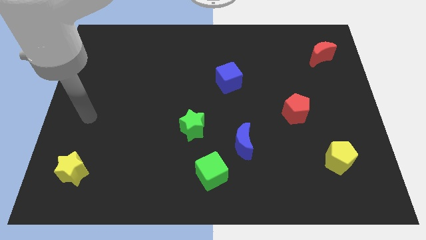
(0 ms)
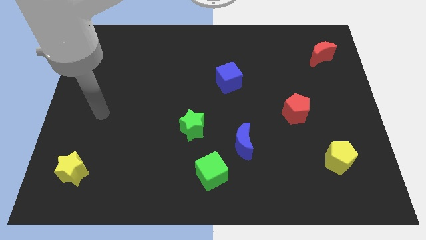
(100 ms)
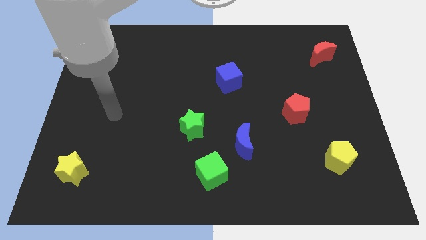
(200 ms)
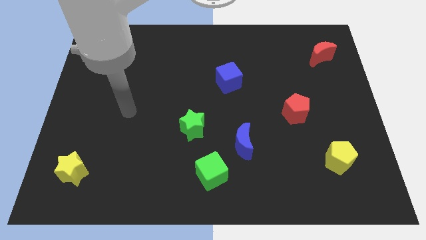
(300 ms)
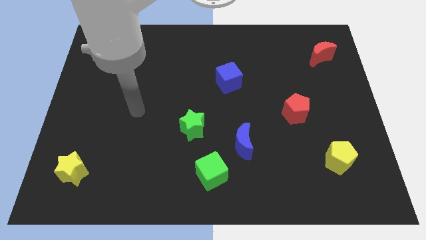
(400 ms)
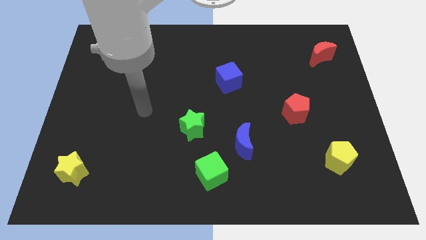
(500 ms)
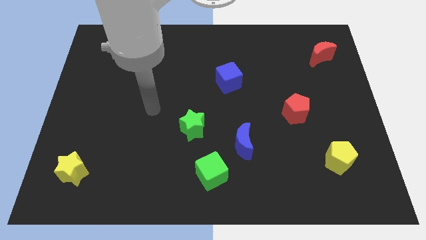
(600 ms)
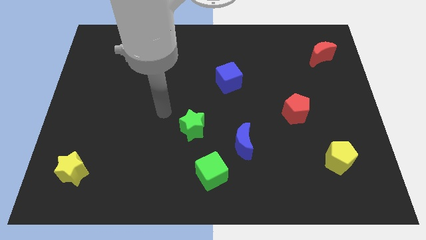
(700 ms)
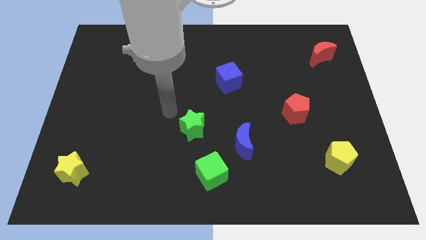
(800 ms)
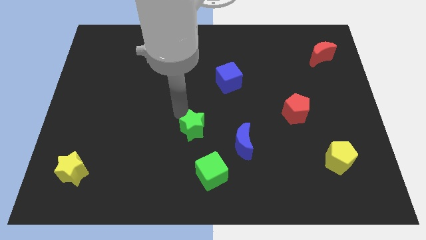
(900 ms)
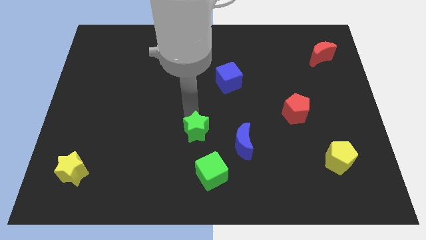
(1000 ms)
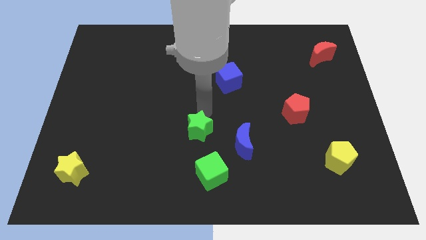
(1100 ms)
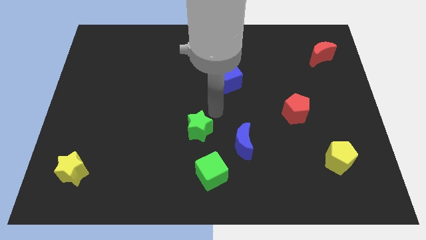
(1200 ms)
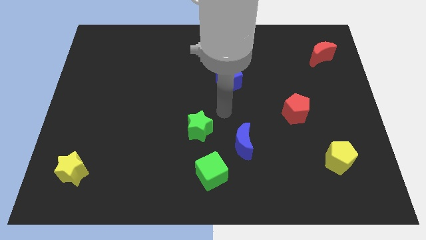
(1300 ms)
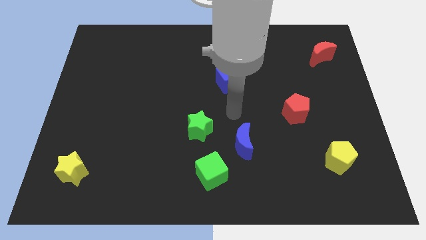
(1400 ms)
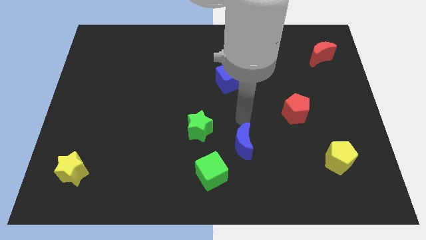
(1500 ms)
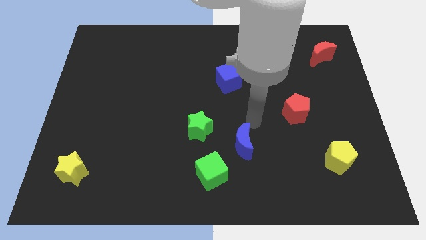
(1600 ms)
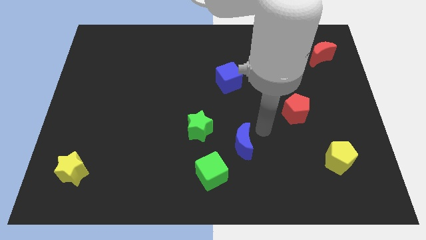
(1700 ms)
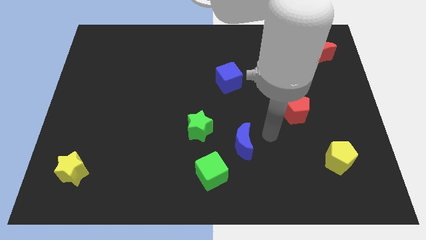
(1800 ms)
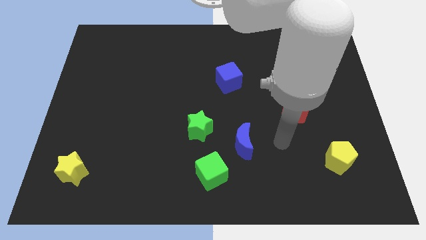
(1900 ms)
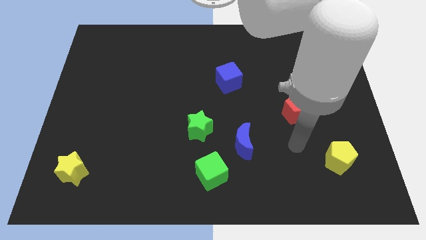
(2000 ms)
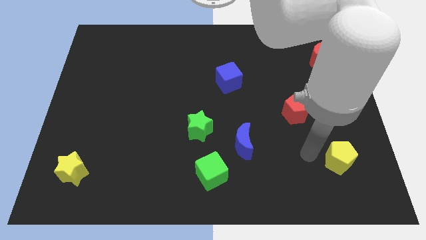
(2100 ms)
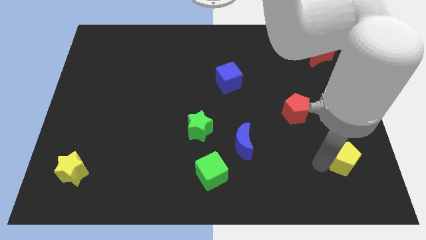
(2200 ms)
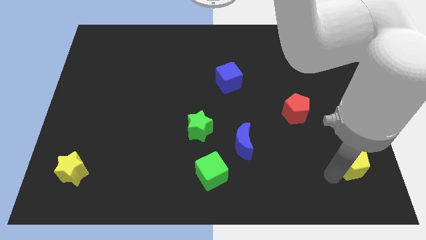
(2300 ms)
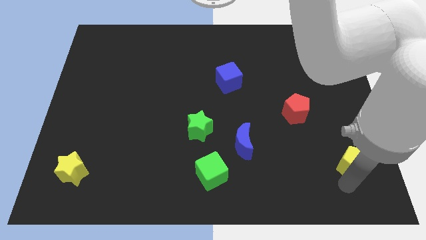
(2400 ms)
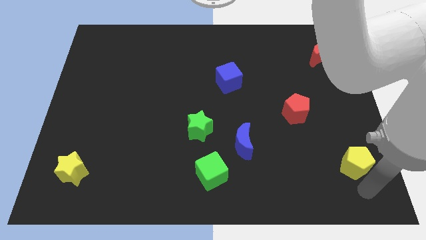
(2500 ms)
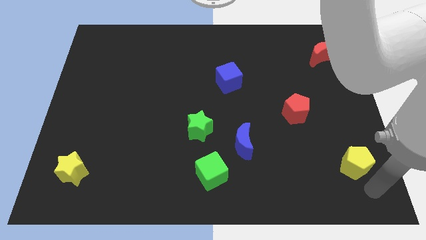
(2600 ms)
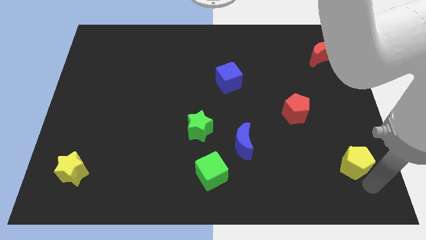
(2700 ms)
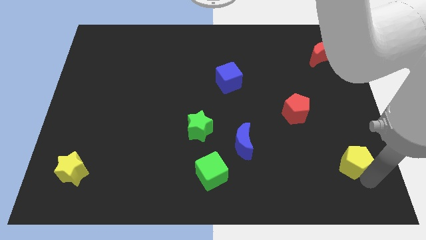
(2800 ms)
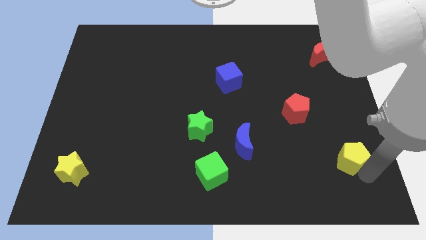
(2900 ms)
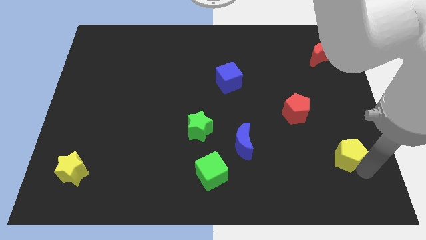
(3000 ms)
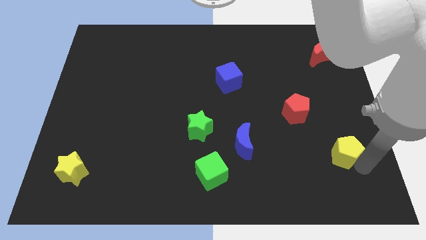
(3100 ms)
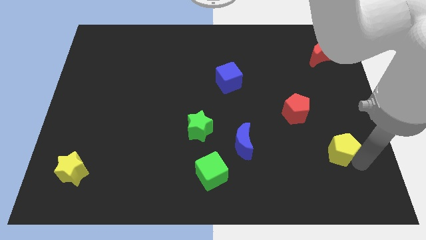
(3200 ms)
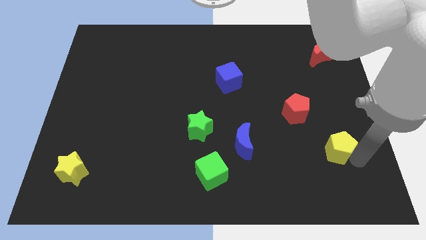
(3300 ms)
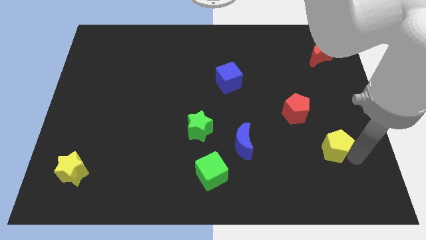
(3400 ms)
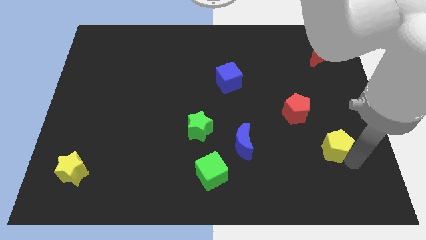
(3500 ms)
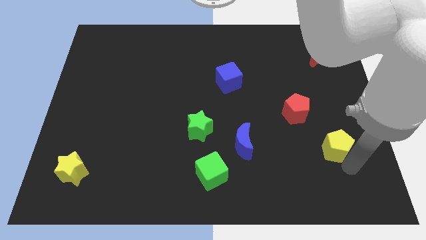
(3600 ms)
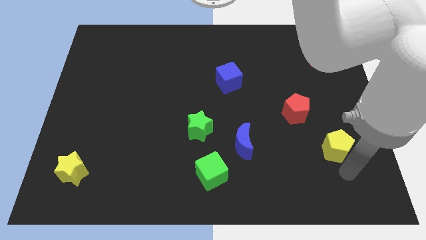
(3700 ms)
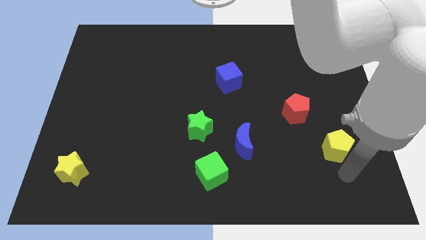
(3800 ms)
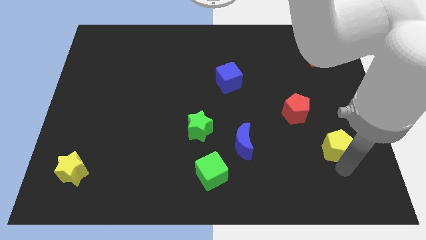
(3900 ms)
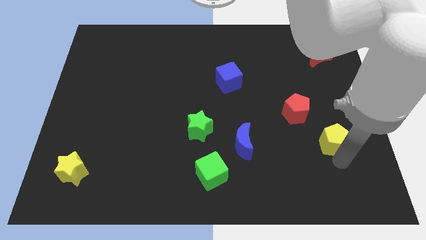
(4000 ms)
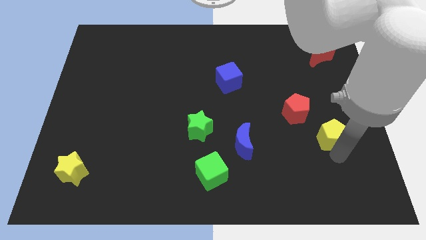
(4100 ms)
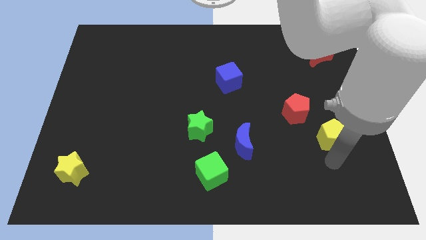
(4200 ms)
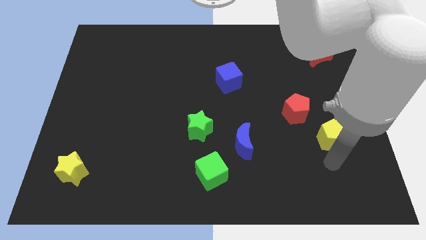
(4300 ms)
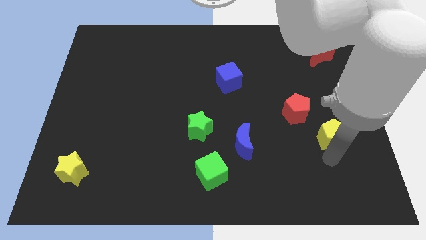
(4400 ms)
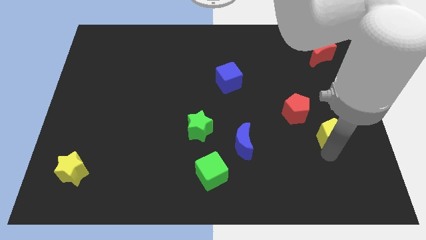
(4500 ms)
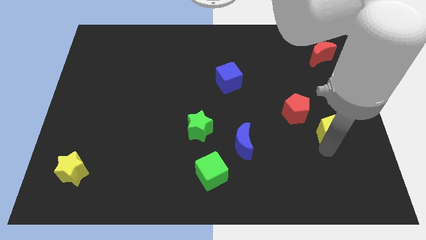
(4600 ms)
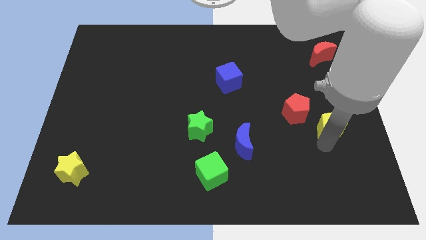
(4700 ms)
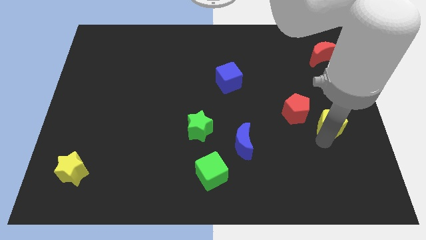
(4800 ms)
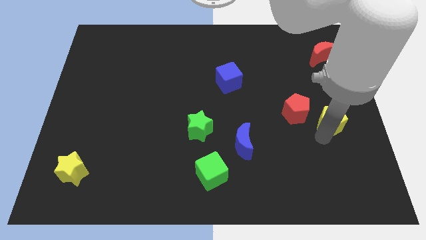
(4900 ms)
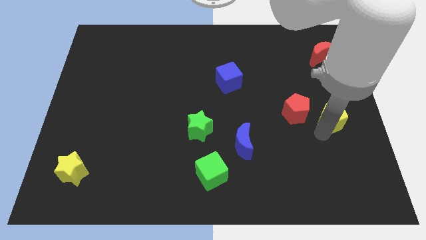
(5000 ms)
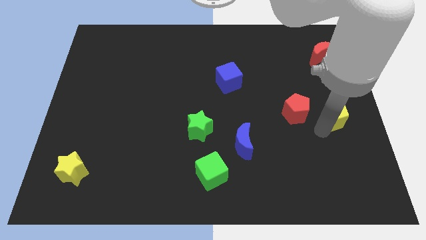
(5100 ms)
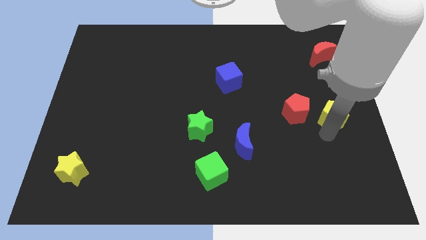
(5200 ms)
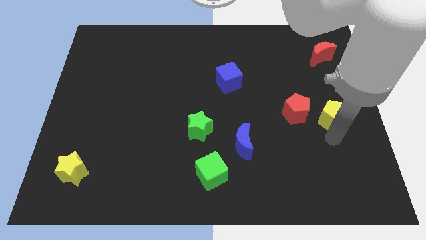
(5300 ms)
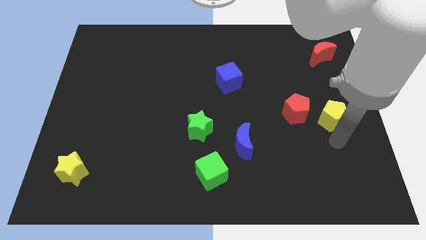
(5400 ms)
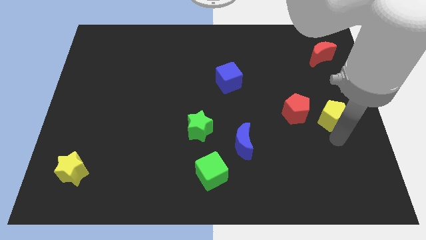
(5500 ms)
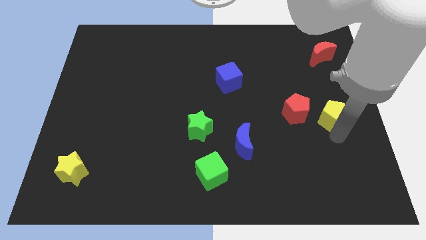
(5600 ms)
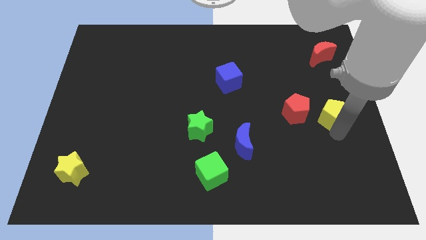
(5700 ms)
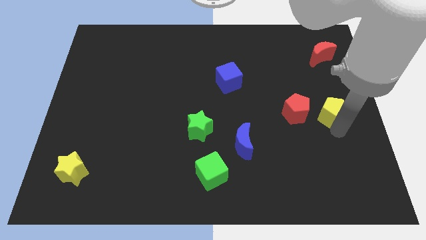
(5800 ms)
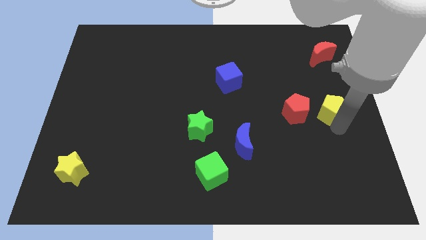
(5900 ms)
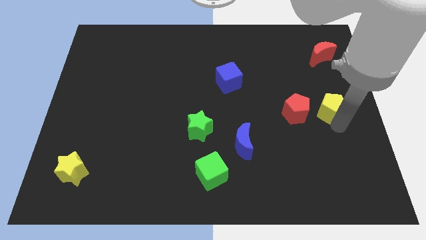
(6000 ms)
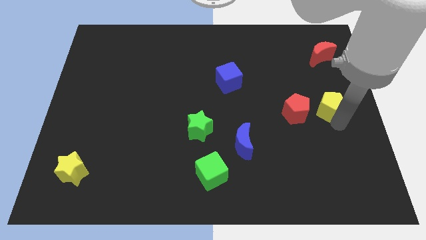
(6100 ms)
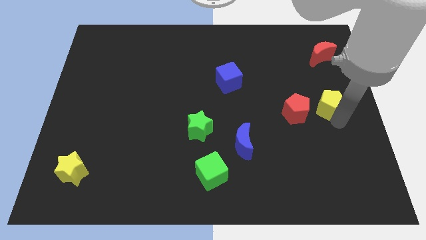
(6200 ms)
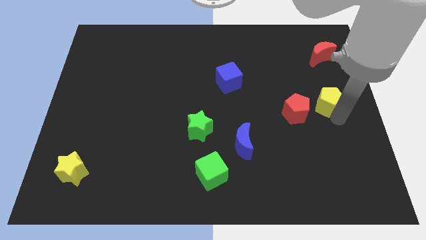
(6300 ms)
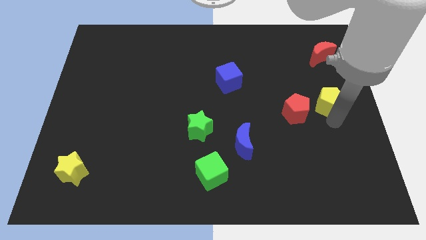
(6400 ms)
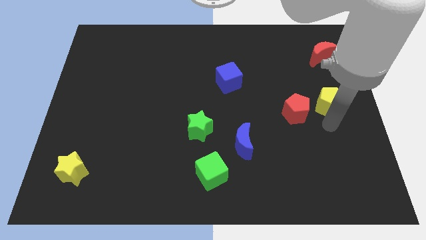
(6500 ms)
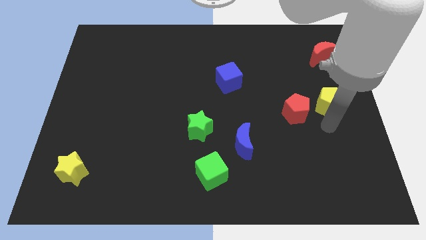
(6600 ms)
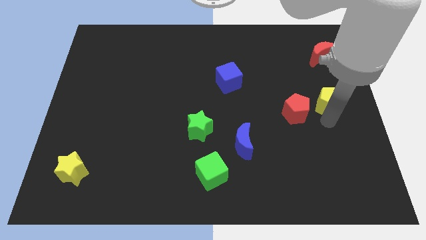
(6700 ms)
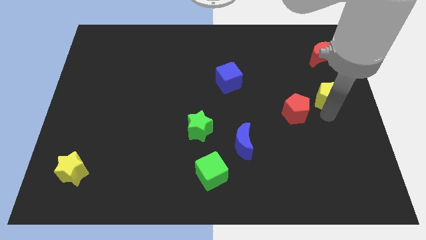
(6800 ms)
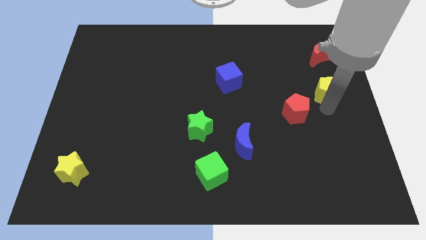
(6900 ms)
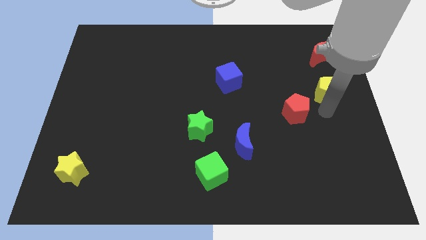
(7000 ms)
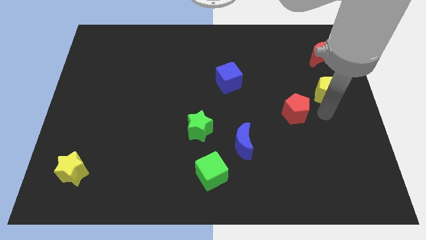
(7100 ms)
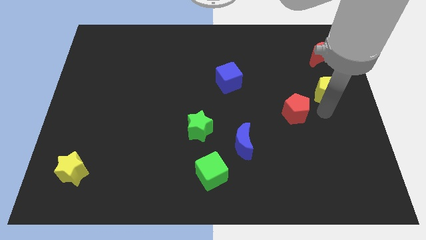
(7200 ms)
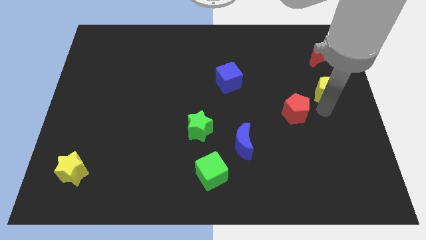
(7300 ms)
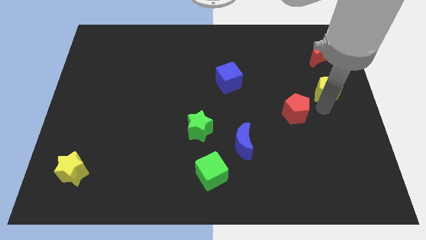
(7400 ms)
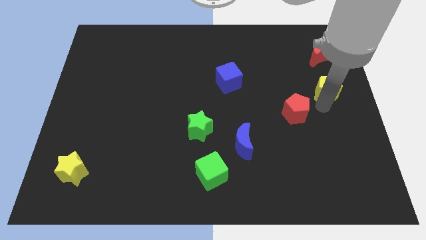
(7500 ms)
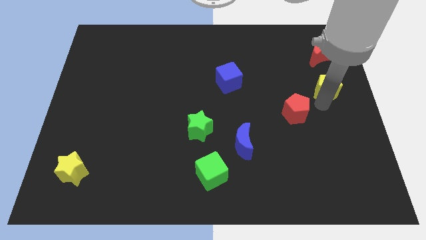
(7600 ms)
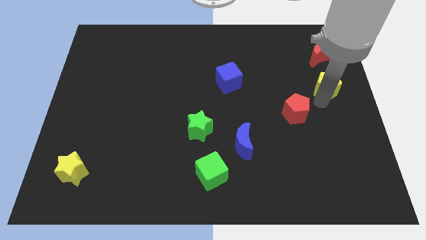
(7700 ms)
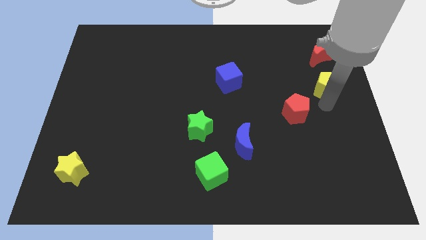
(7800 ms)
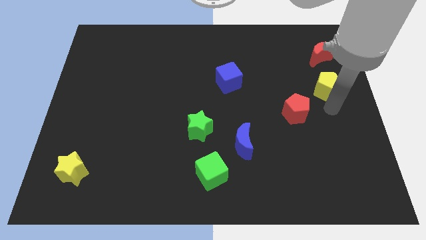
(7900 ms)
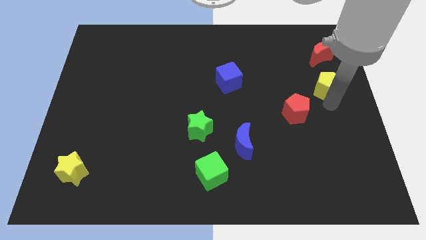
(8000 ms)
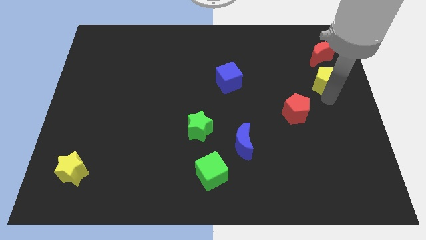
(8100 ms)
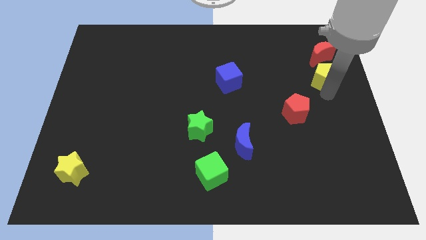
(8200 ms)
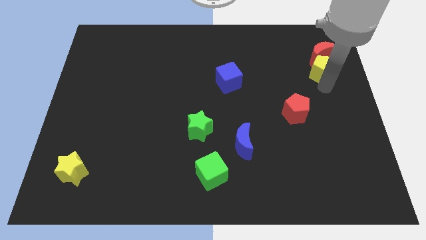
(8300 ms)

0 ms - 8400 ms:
push the yellow pentagon towards the red moon
